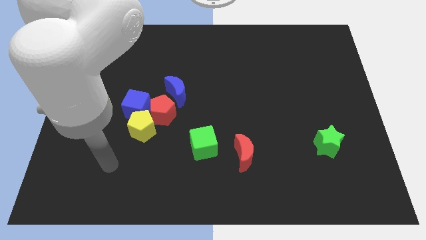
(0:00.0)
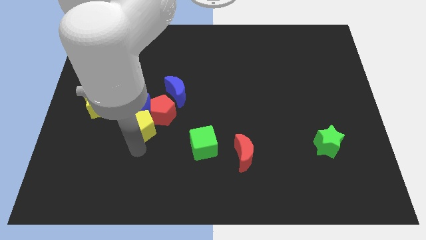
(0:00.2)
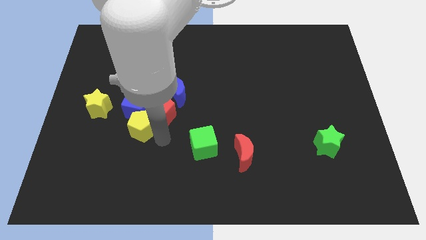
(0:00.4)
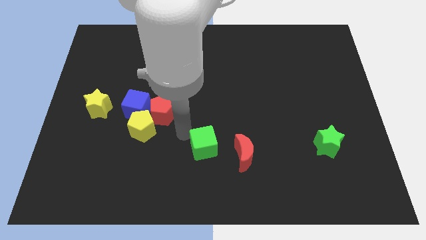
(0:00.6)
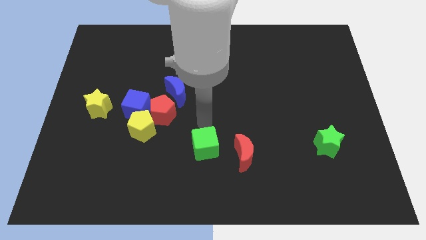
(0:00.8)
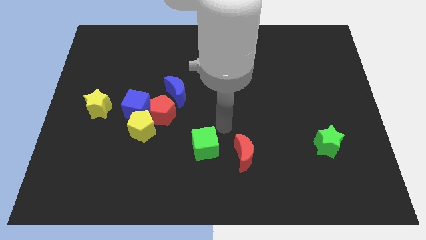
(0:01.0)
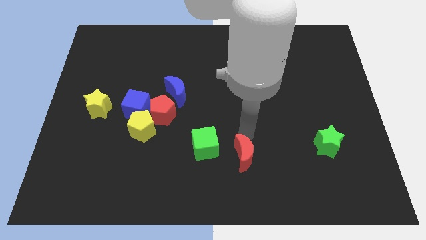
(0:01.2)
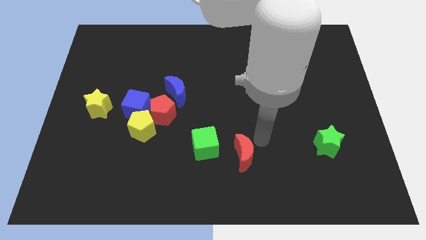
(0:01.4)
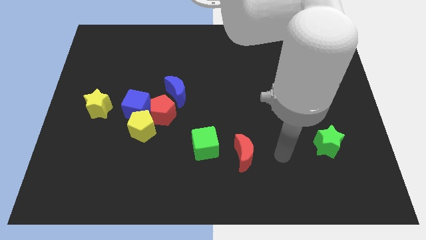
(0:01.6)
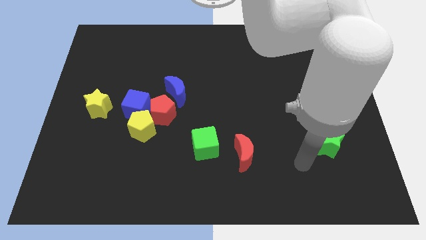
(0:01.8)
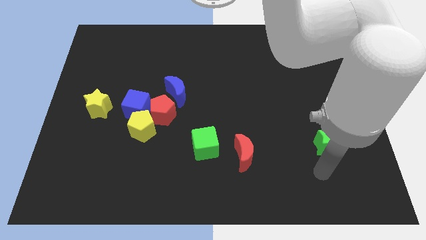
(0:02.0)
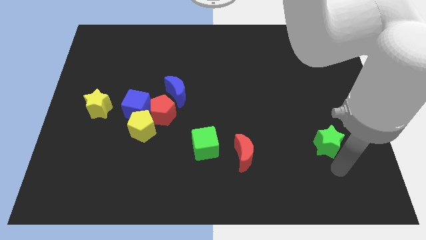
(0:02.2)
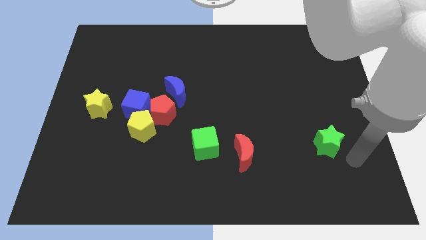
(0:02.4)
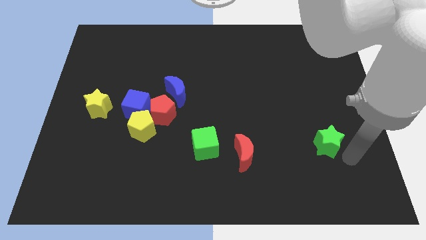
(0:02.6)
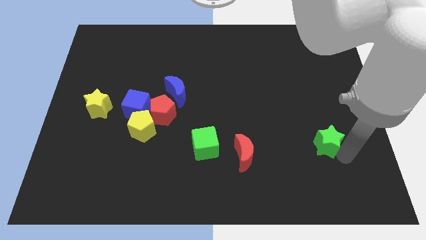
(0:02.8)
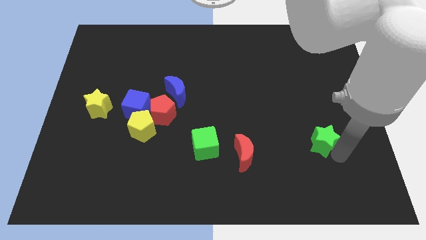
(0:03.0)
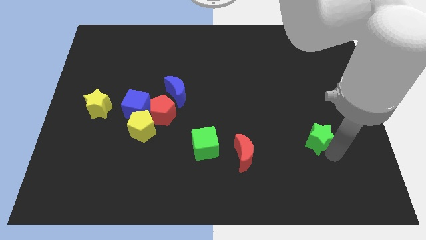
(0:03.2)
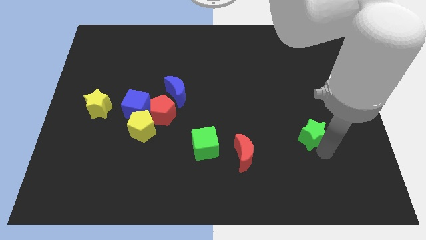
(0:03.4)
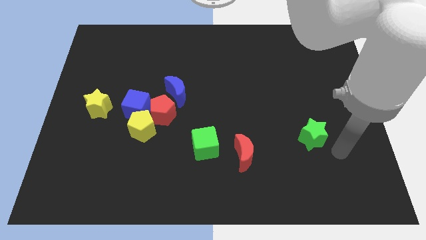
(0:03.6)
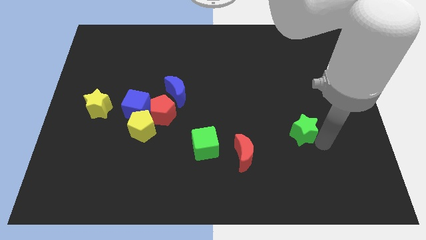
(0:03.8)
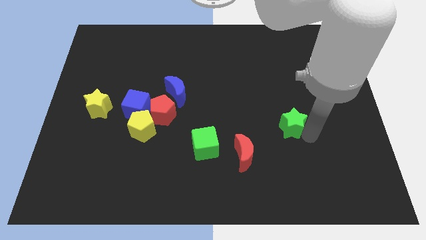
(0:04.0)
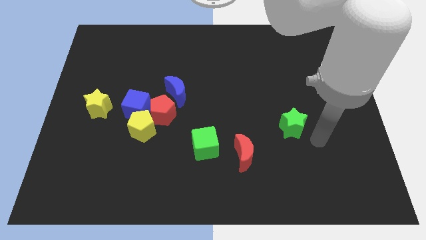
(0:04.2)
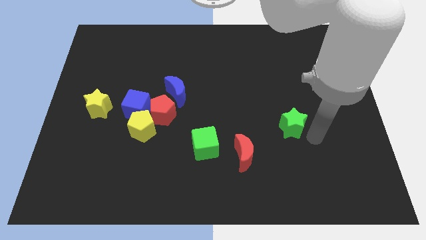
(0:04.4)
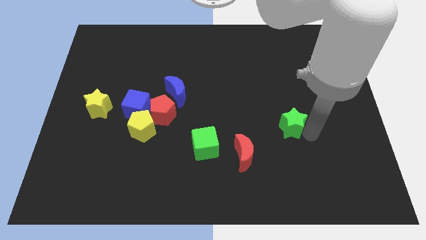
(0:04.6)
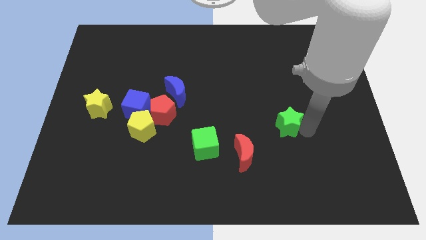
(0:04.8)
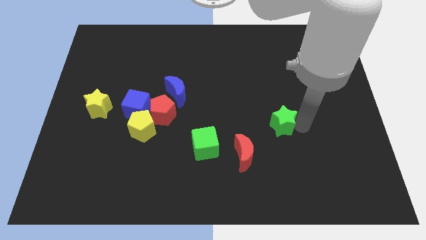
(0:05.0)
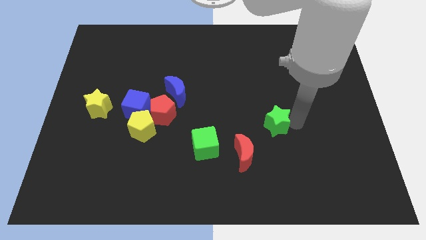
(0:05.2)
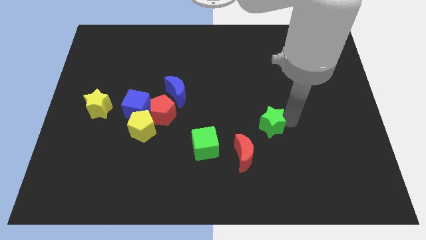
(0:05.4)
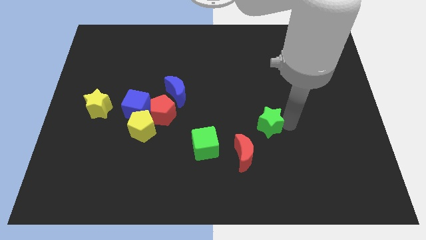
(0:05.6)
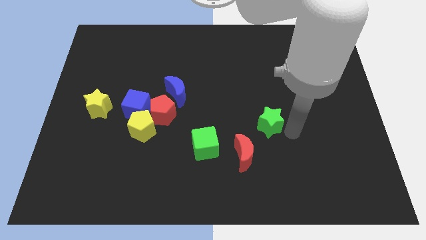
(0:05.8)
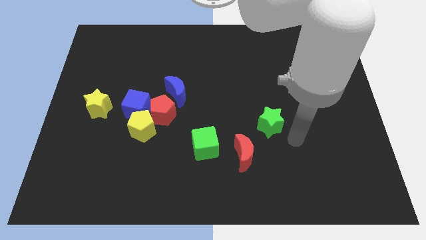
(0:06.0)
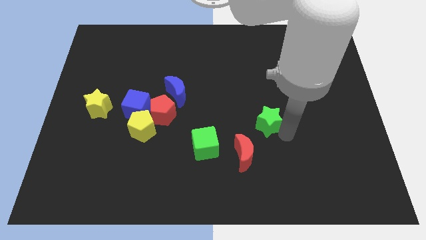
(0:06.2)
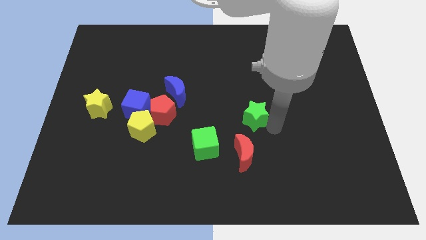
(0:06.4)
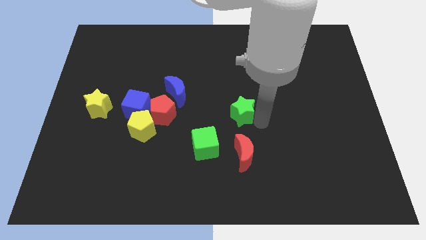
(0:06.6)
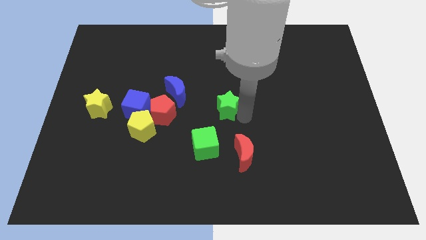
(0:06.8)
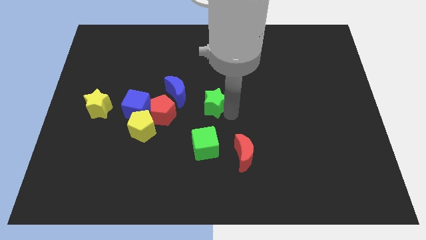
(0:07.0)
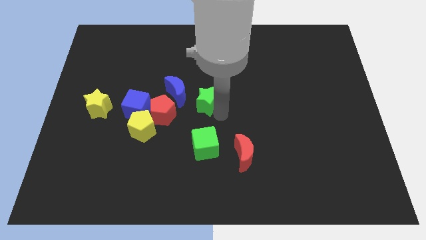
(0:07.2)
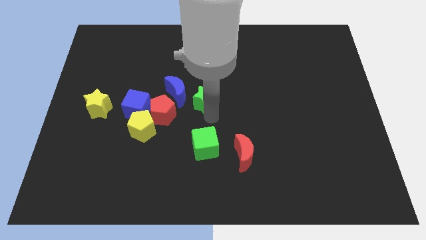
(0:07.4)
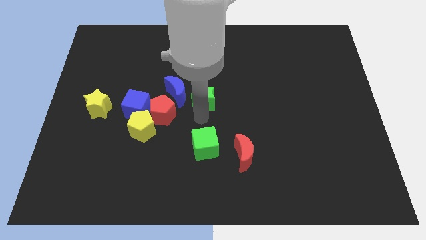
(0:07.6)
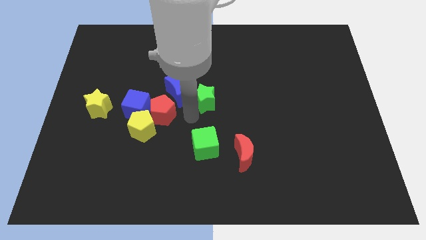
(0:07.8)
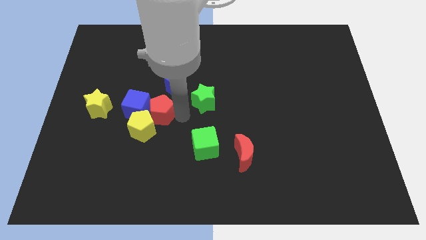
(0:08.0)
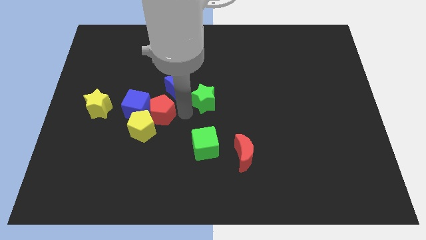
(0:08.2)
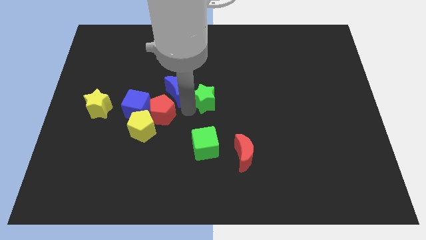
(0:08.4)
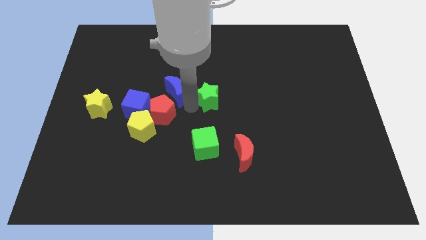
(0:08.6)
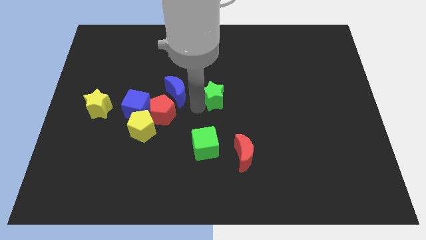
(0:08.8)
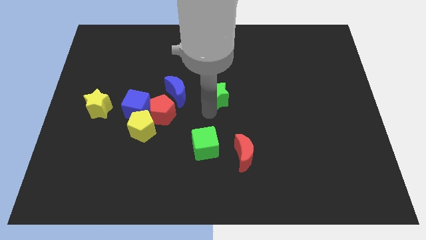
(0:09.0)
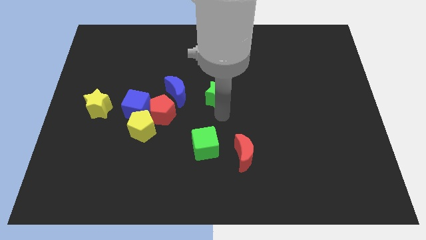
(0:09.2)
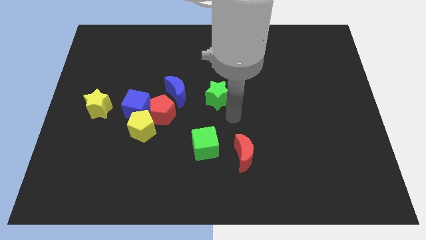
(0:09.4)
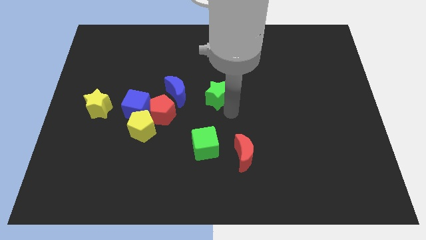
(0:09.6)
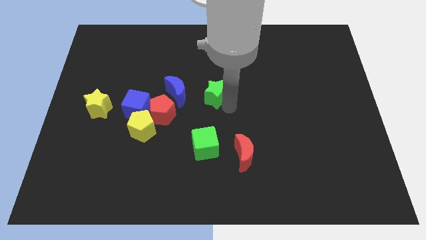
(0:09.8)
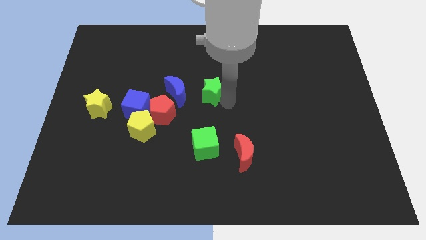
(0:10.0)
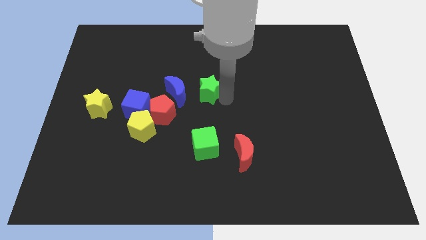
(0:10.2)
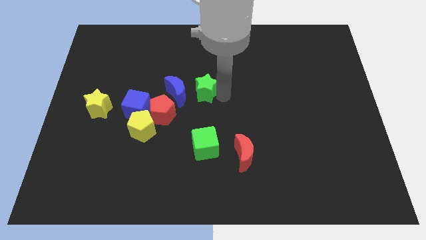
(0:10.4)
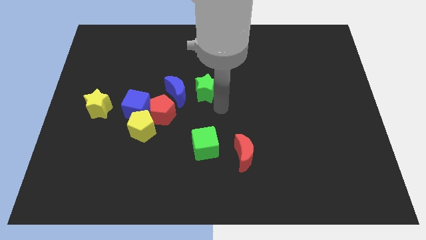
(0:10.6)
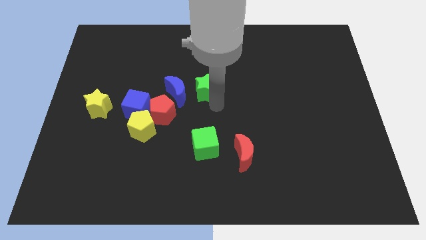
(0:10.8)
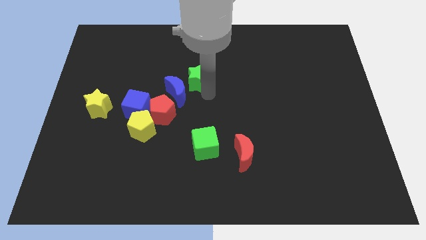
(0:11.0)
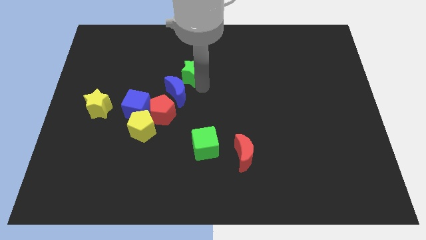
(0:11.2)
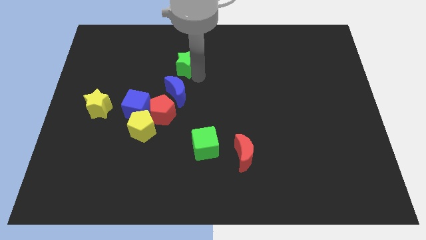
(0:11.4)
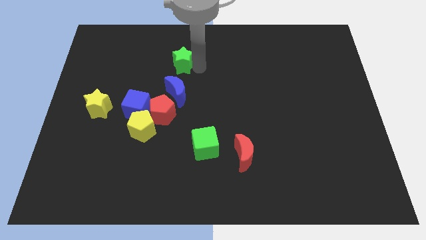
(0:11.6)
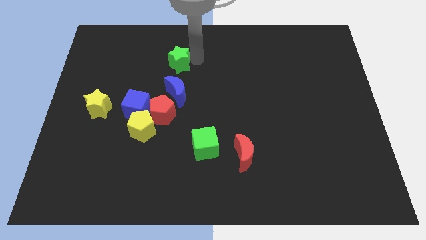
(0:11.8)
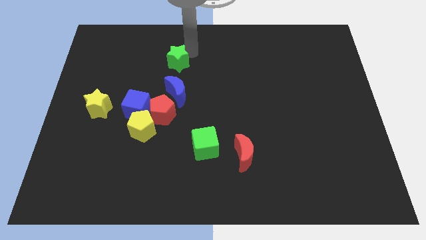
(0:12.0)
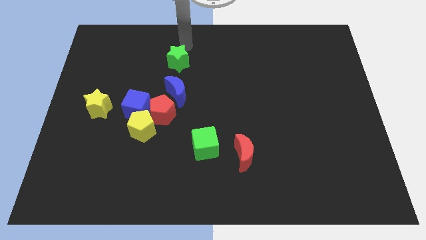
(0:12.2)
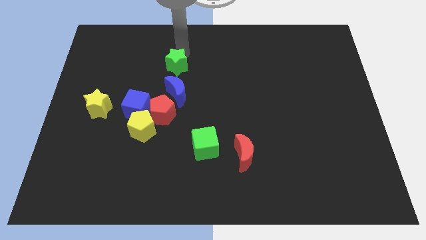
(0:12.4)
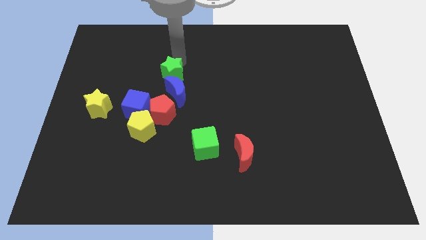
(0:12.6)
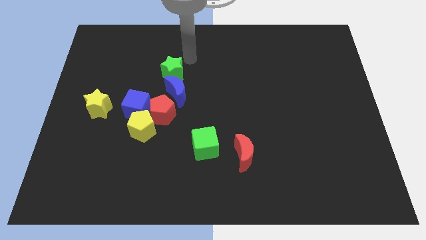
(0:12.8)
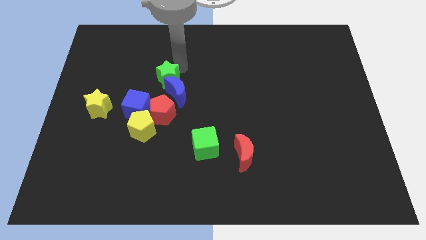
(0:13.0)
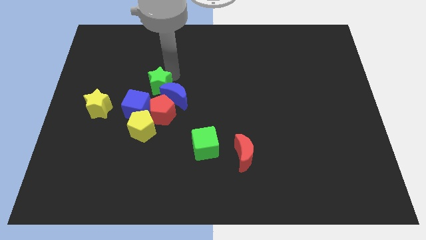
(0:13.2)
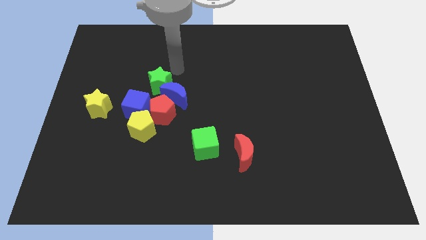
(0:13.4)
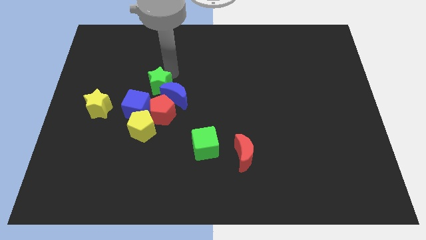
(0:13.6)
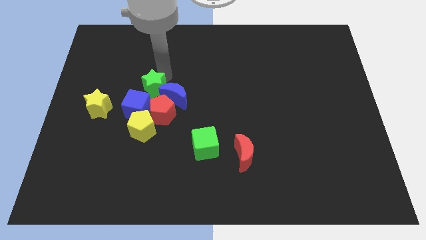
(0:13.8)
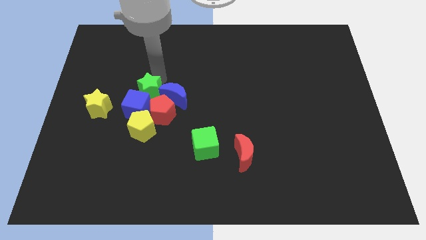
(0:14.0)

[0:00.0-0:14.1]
put the green star to the blue cube

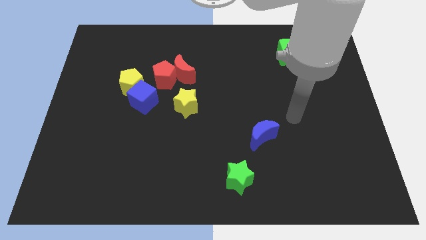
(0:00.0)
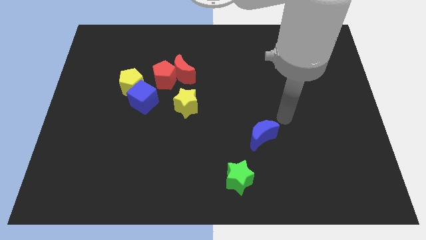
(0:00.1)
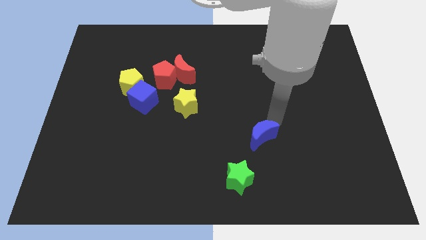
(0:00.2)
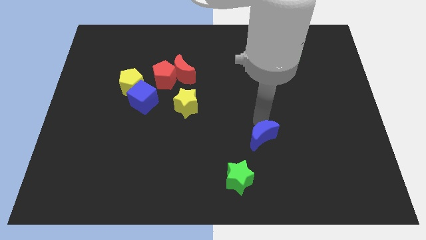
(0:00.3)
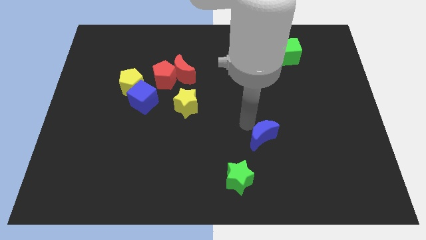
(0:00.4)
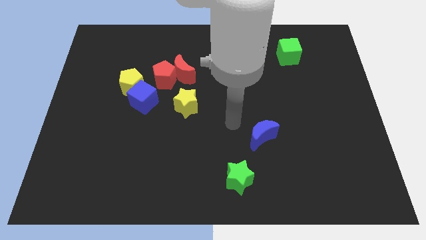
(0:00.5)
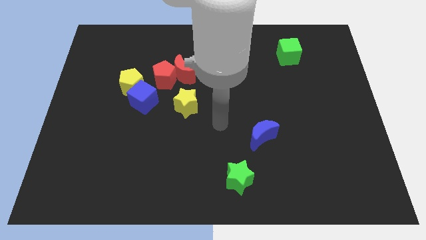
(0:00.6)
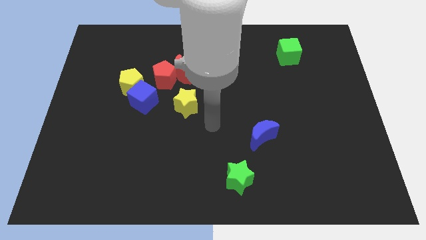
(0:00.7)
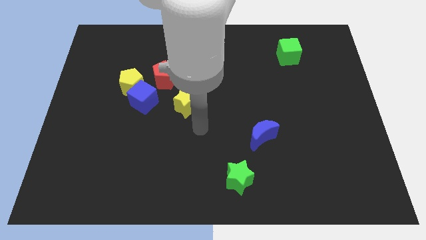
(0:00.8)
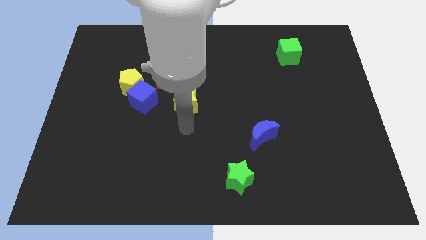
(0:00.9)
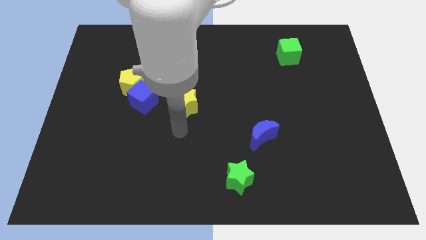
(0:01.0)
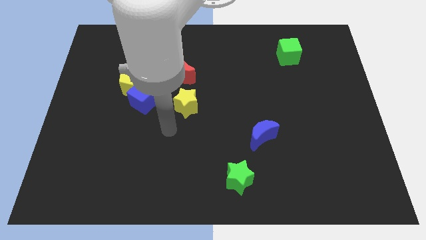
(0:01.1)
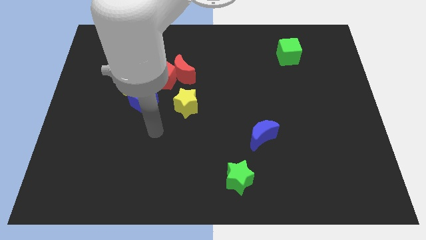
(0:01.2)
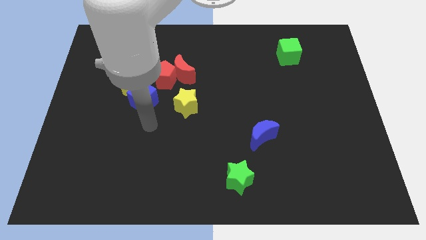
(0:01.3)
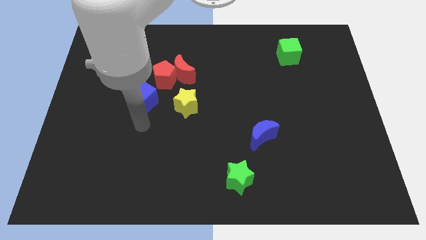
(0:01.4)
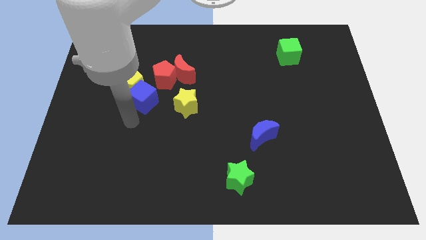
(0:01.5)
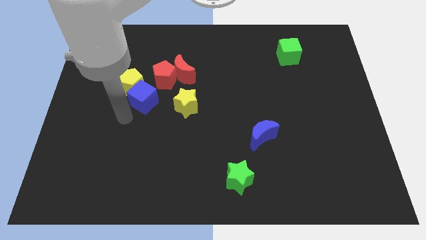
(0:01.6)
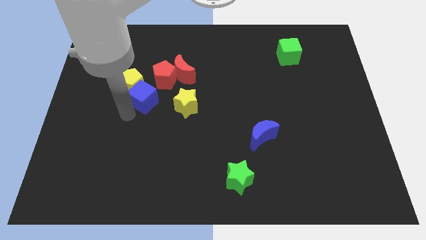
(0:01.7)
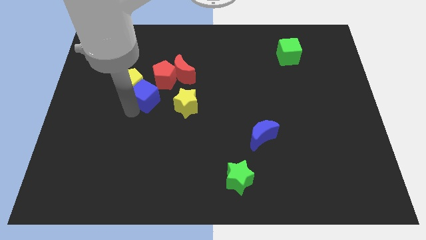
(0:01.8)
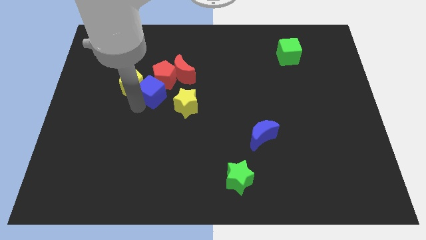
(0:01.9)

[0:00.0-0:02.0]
put the blue cube towards the red pentagon
